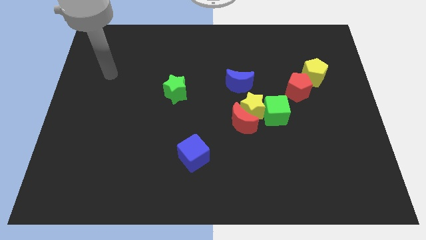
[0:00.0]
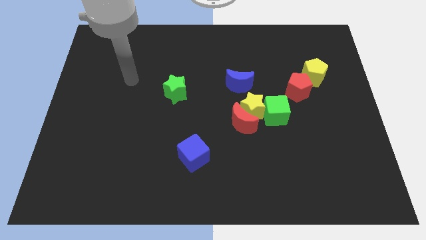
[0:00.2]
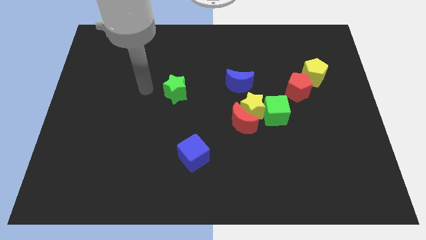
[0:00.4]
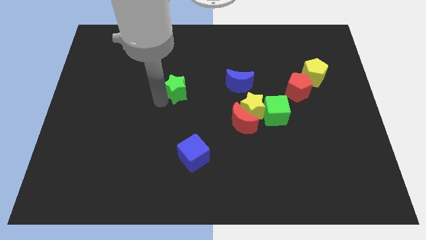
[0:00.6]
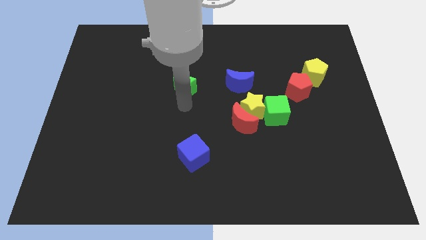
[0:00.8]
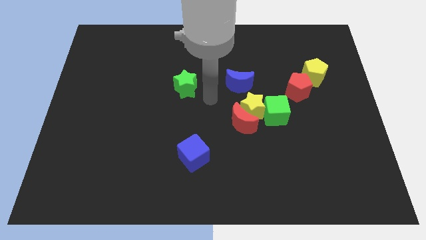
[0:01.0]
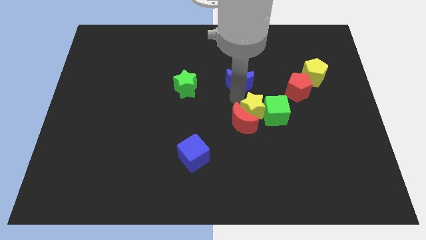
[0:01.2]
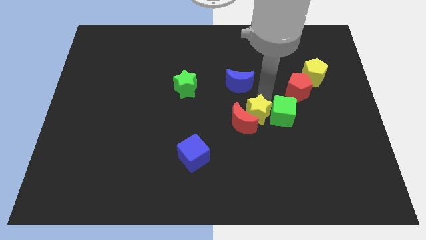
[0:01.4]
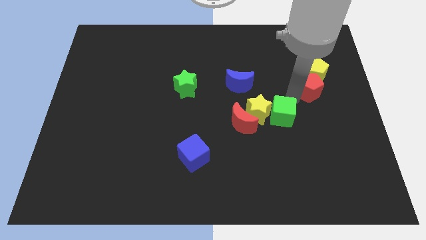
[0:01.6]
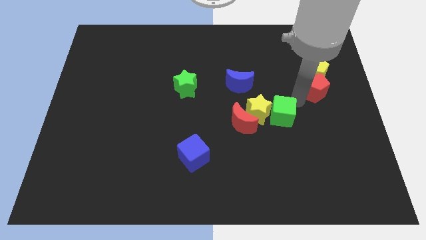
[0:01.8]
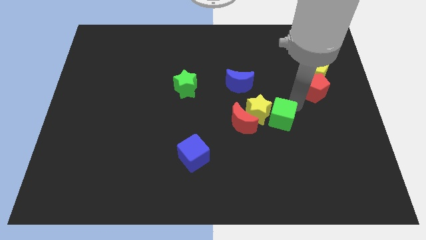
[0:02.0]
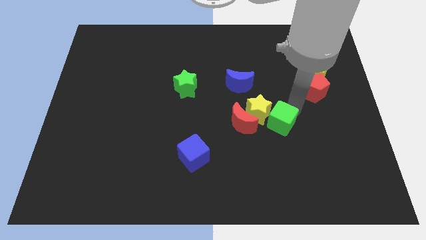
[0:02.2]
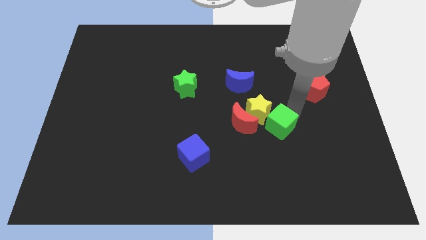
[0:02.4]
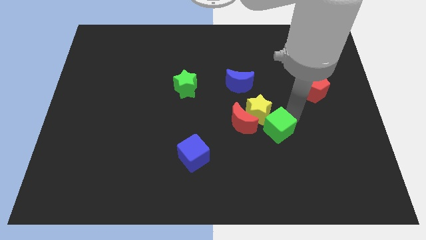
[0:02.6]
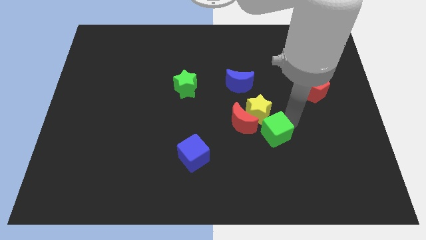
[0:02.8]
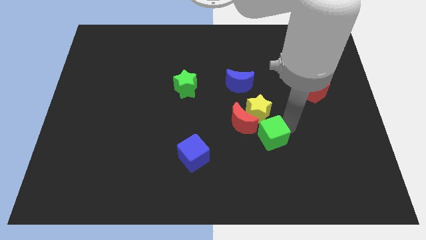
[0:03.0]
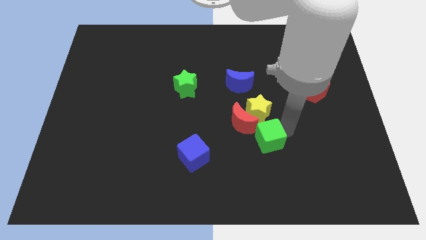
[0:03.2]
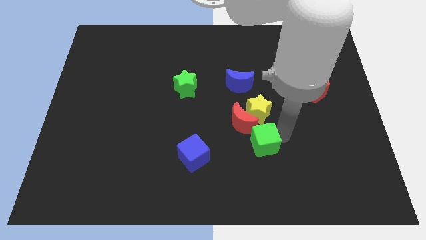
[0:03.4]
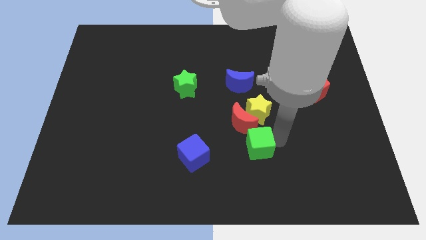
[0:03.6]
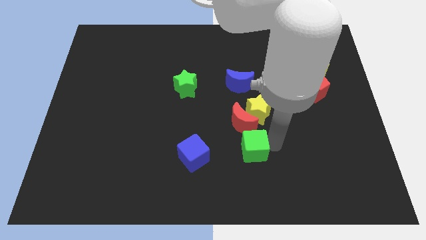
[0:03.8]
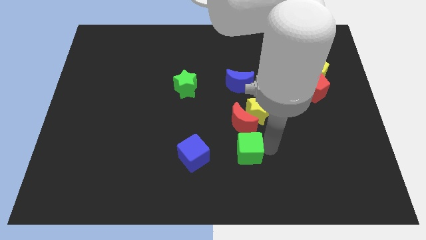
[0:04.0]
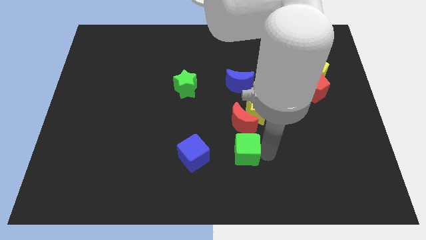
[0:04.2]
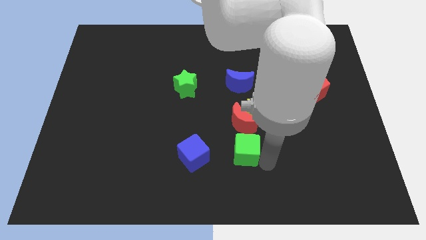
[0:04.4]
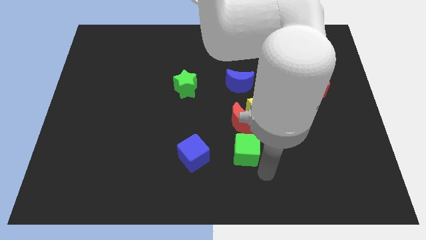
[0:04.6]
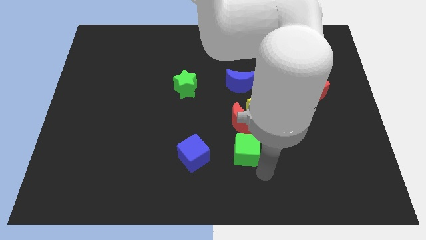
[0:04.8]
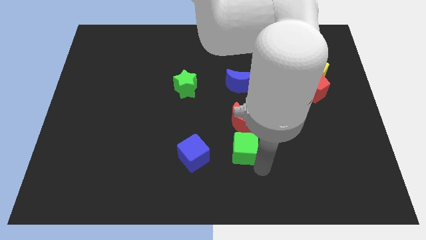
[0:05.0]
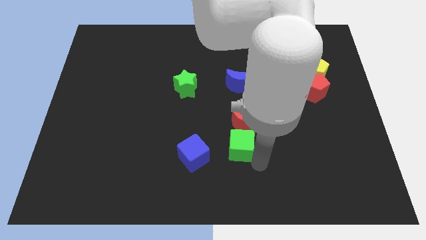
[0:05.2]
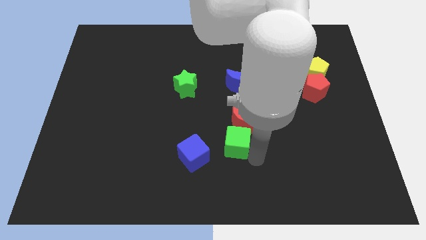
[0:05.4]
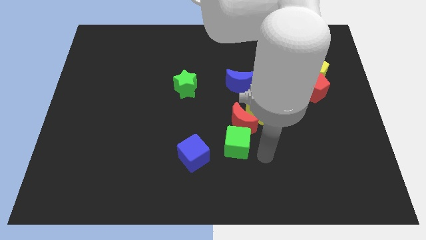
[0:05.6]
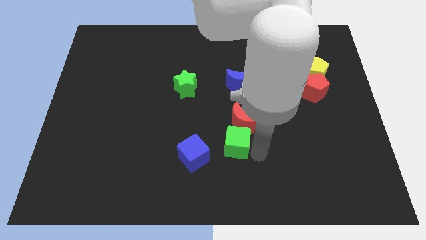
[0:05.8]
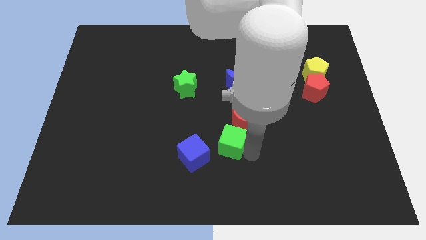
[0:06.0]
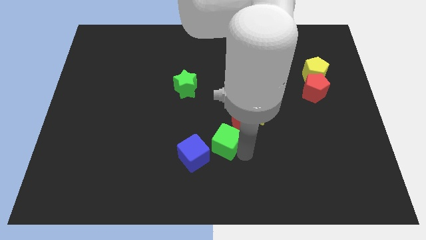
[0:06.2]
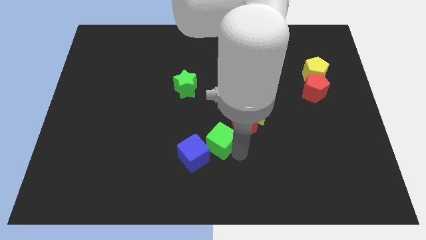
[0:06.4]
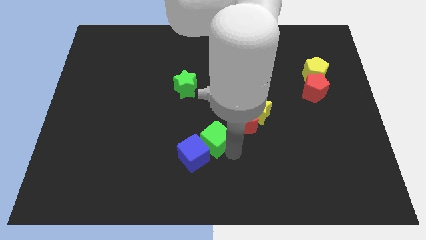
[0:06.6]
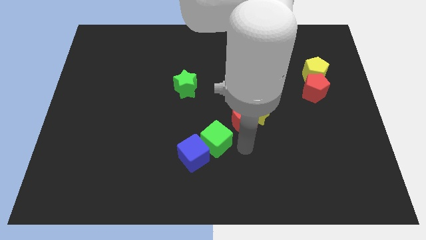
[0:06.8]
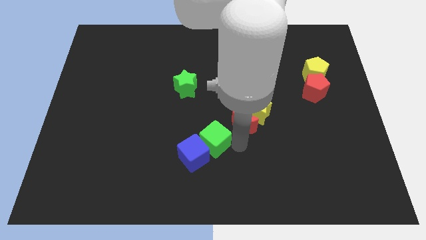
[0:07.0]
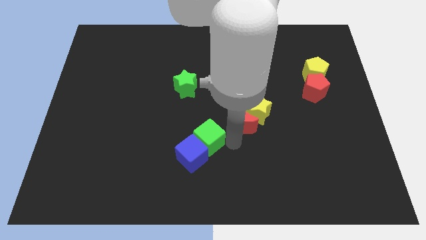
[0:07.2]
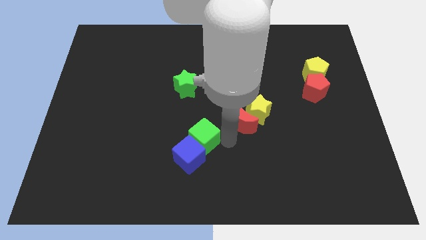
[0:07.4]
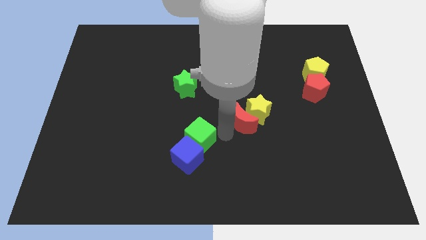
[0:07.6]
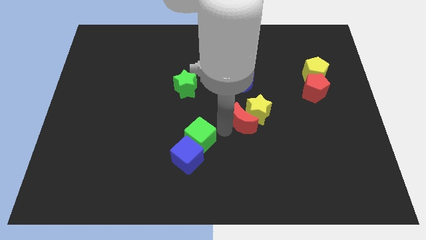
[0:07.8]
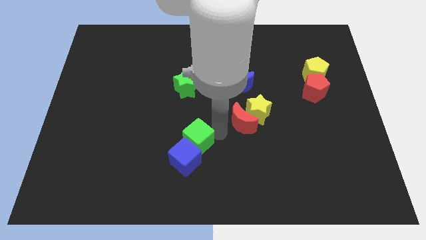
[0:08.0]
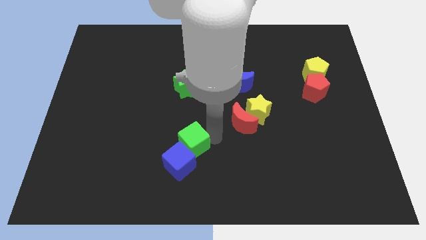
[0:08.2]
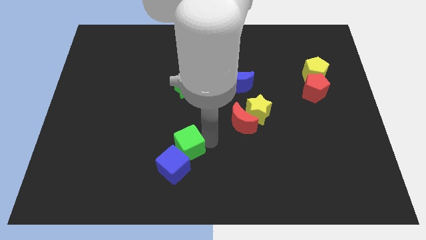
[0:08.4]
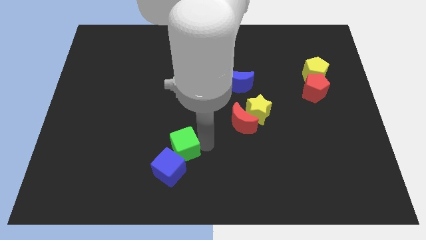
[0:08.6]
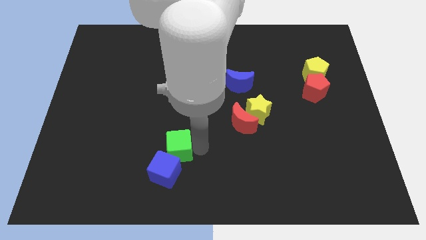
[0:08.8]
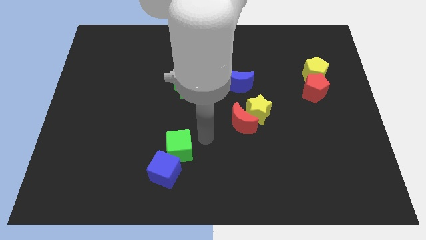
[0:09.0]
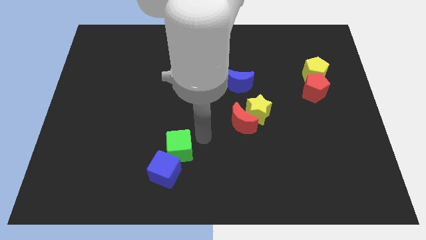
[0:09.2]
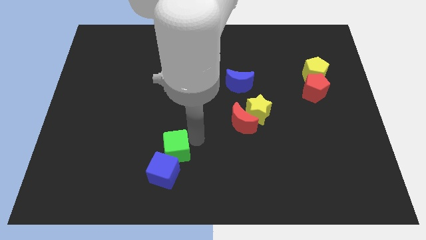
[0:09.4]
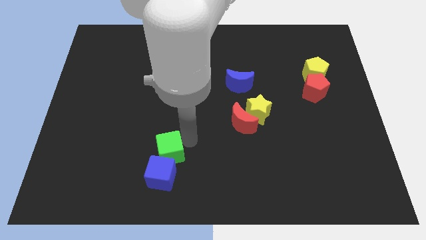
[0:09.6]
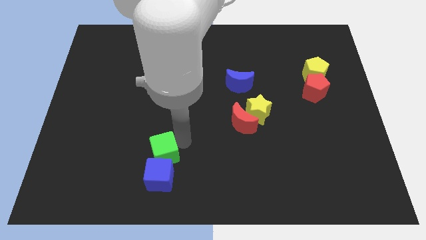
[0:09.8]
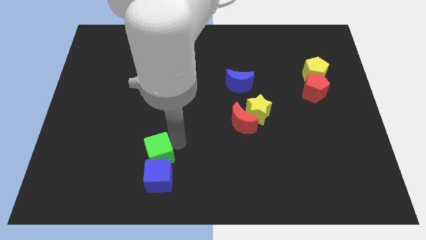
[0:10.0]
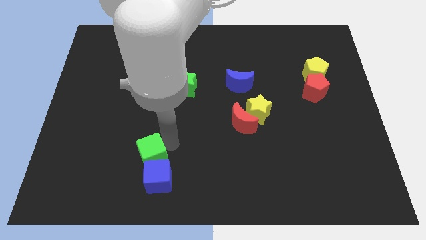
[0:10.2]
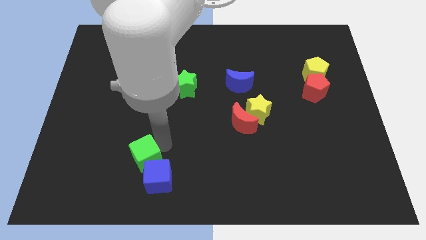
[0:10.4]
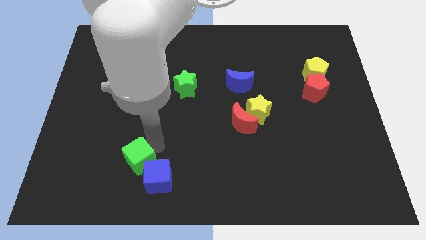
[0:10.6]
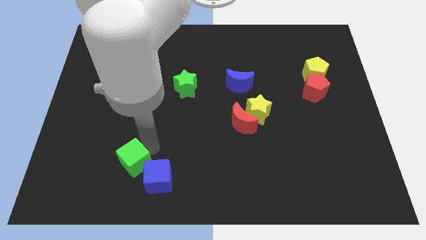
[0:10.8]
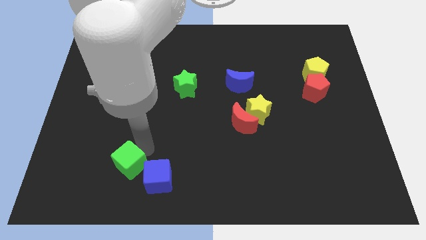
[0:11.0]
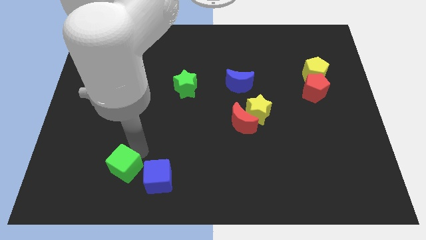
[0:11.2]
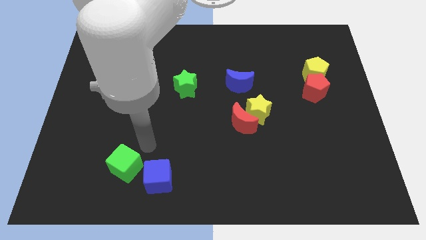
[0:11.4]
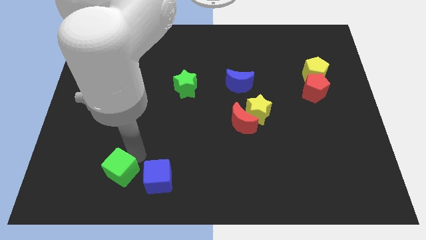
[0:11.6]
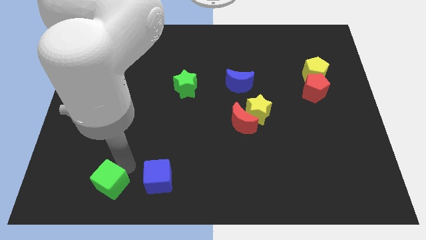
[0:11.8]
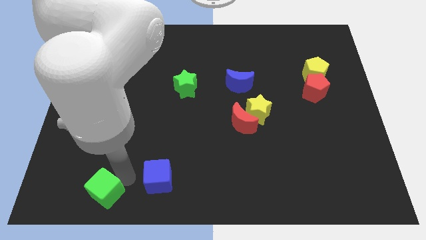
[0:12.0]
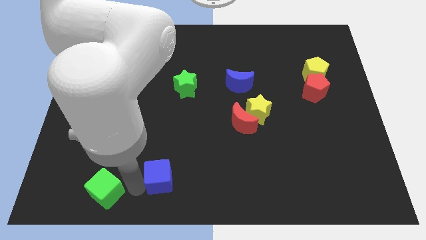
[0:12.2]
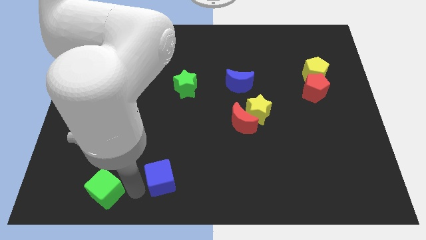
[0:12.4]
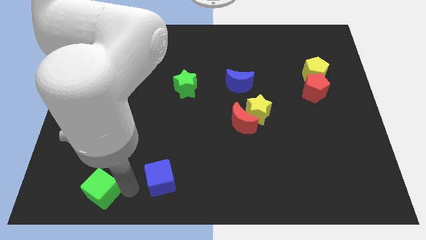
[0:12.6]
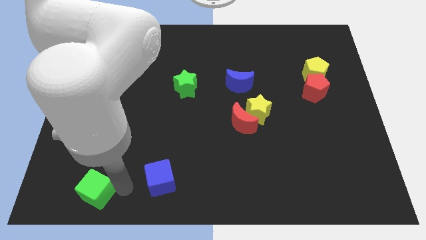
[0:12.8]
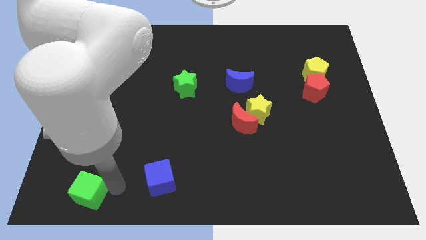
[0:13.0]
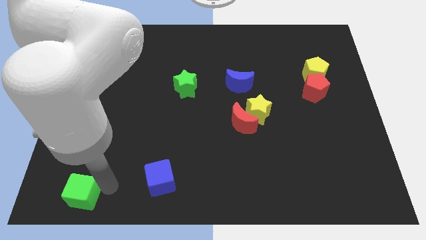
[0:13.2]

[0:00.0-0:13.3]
put the green cube to the bottom left of the board

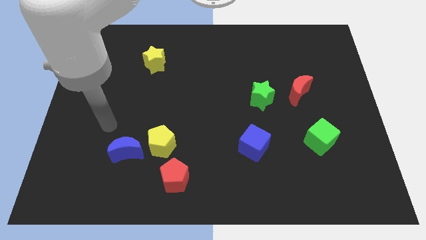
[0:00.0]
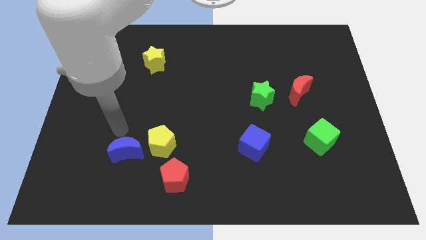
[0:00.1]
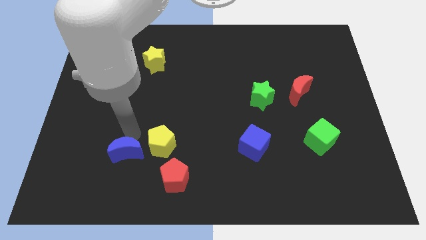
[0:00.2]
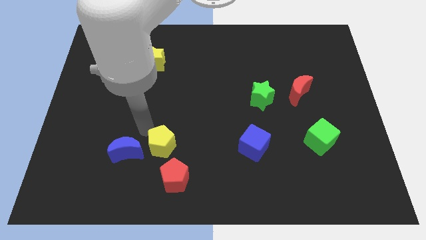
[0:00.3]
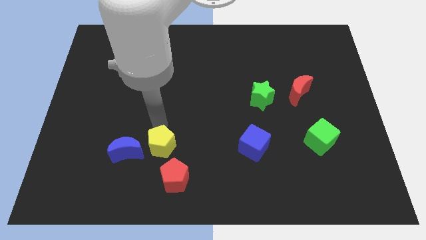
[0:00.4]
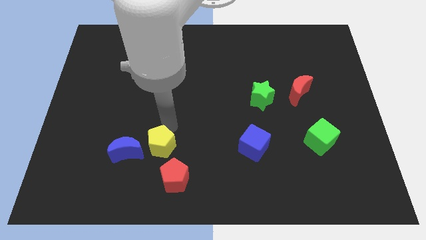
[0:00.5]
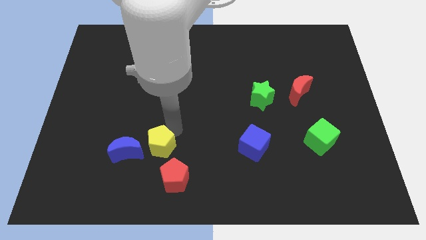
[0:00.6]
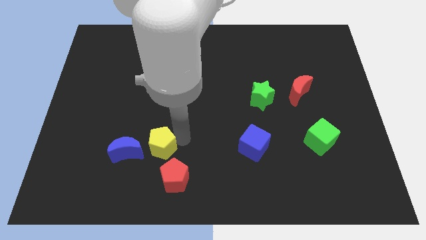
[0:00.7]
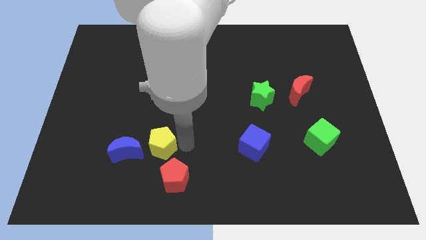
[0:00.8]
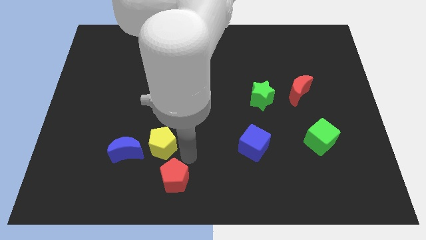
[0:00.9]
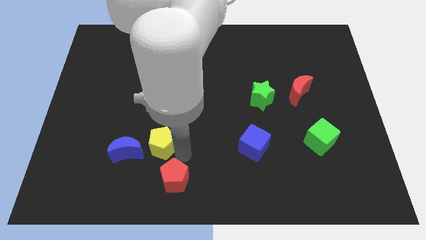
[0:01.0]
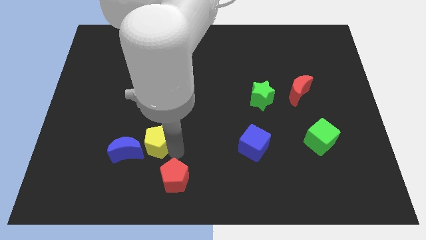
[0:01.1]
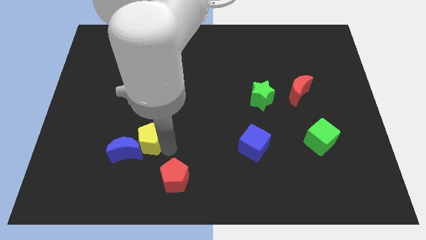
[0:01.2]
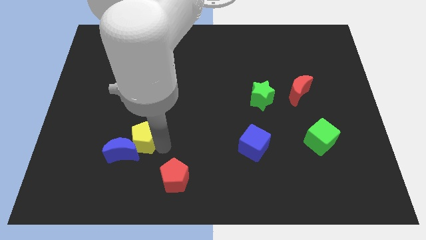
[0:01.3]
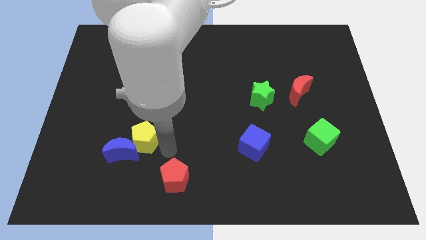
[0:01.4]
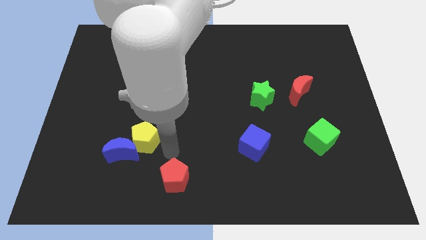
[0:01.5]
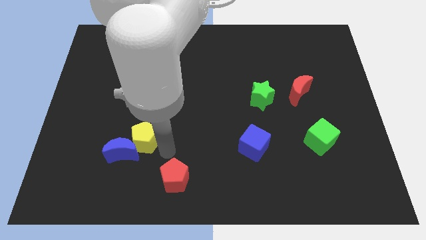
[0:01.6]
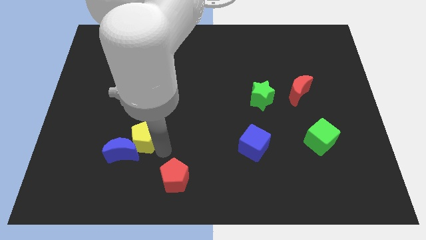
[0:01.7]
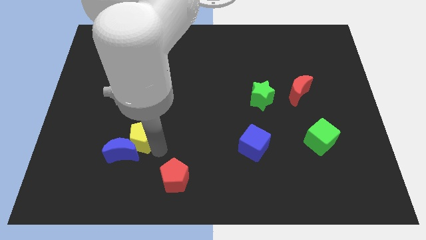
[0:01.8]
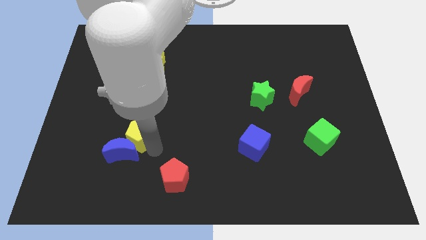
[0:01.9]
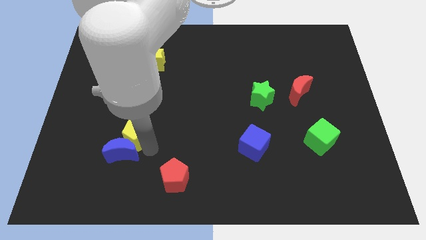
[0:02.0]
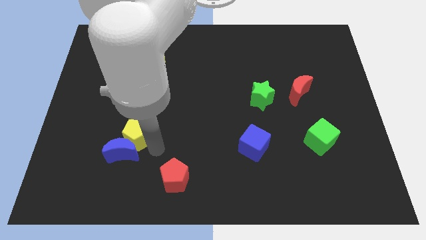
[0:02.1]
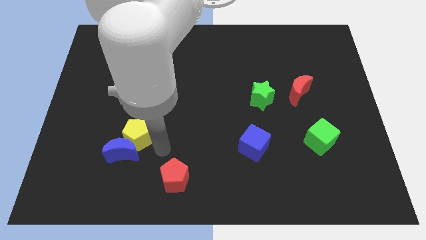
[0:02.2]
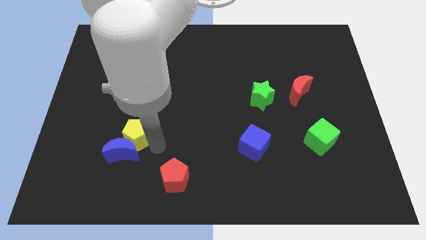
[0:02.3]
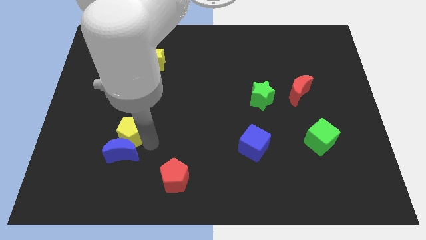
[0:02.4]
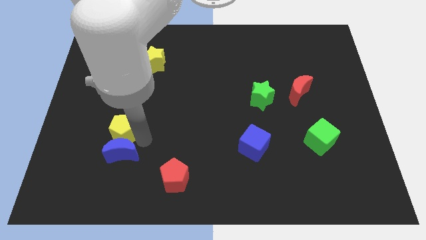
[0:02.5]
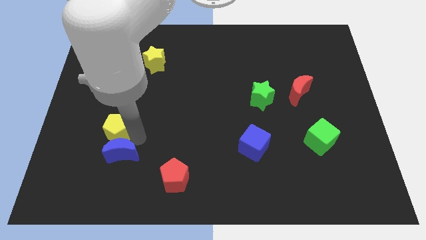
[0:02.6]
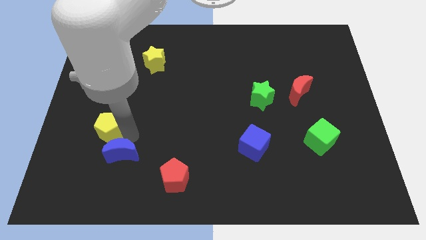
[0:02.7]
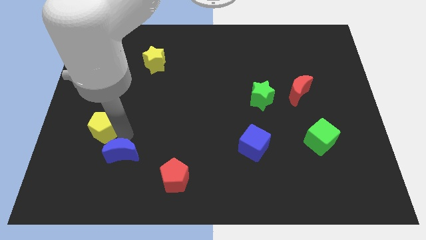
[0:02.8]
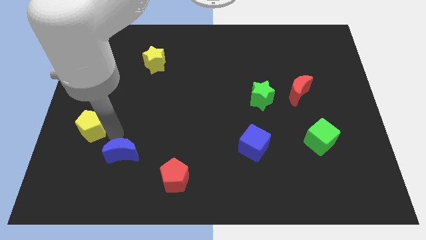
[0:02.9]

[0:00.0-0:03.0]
push the yellow pentagon to the center left
